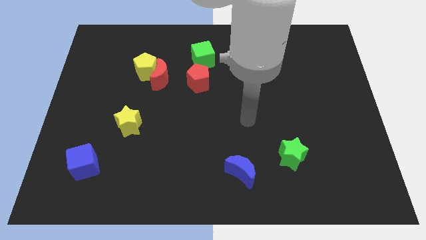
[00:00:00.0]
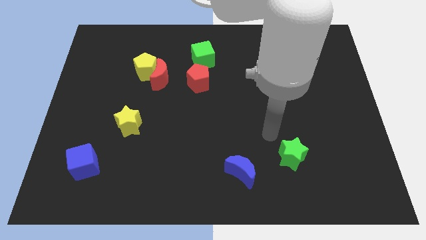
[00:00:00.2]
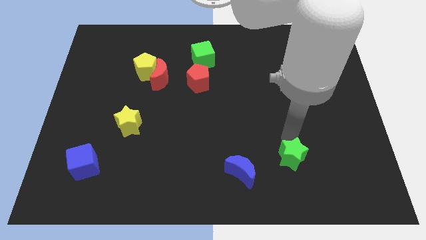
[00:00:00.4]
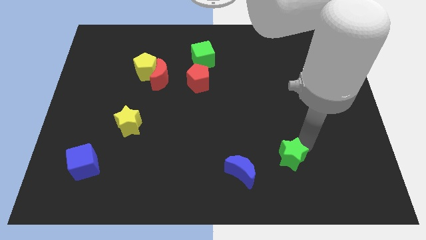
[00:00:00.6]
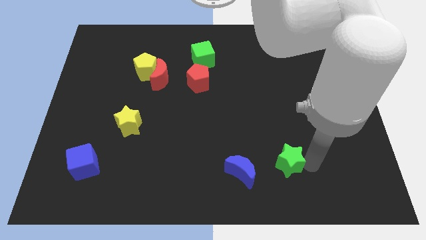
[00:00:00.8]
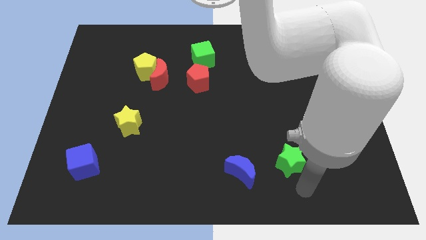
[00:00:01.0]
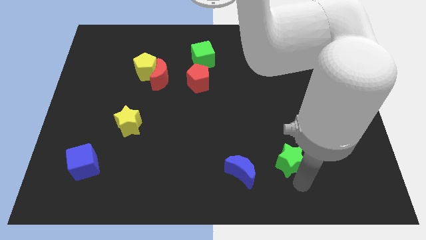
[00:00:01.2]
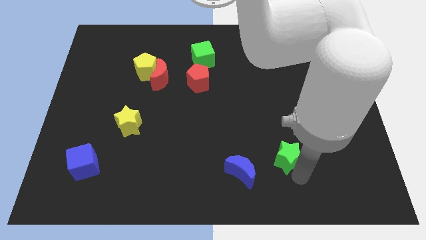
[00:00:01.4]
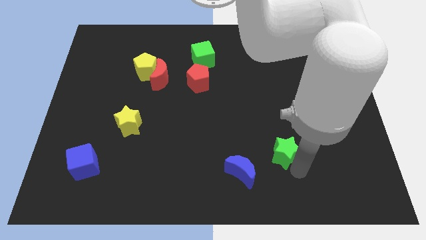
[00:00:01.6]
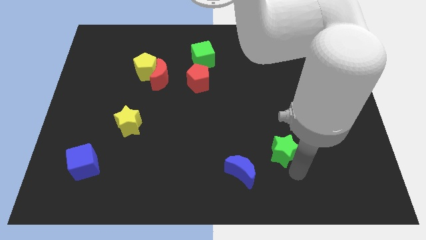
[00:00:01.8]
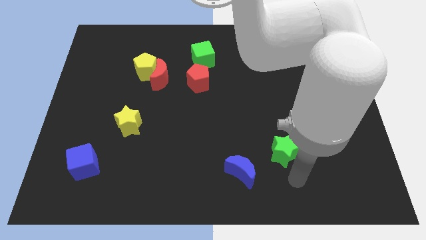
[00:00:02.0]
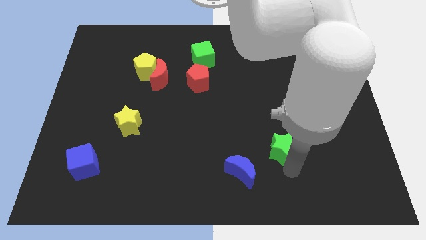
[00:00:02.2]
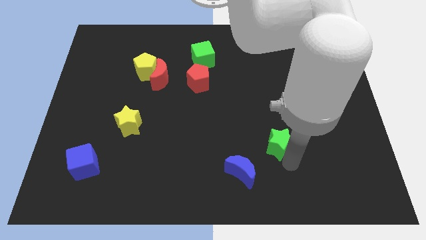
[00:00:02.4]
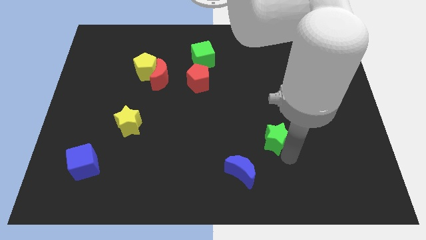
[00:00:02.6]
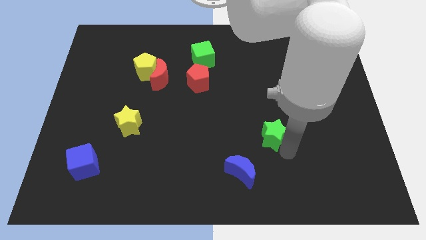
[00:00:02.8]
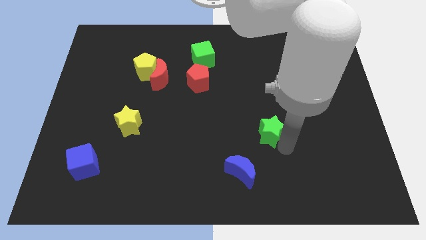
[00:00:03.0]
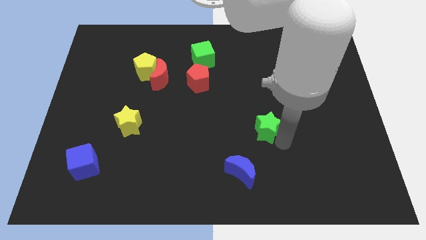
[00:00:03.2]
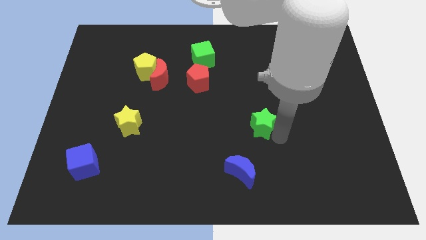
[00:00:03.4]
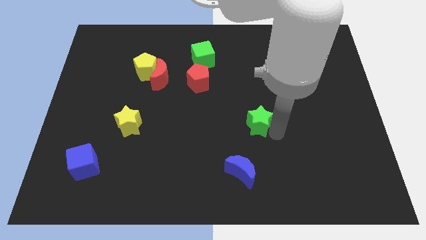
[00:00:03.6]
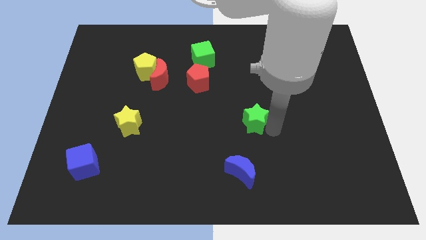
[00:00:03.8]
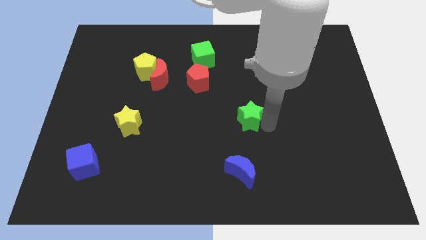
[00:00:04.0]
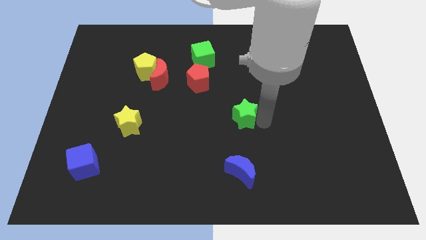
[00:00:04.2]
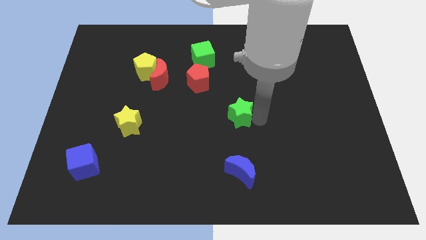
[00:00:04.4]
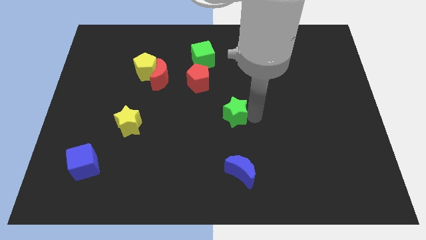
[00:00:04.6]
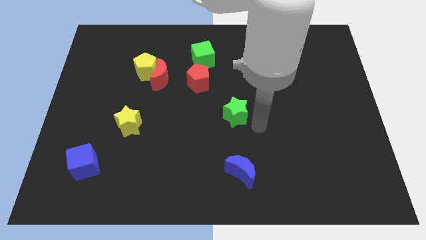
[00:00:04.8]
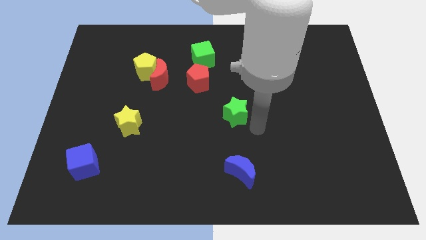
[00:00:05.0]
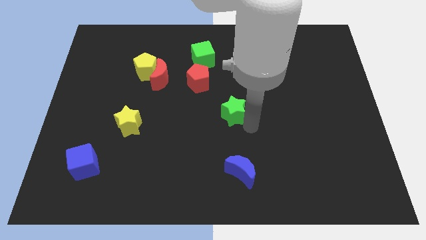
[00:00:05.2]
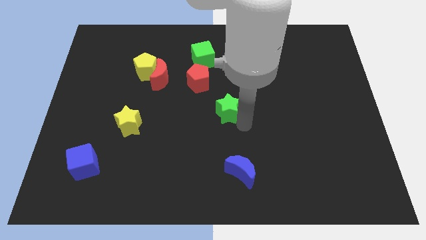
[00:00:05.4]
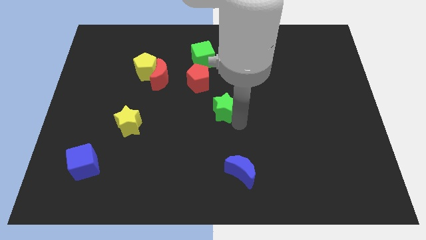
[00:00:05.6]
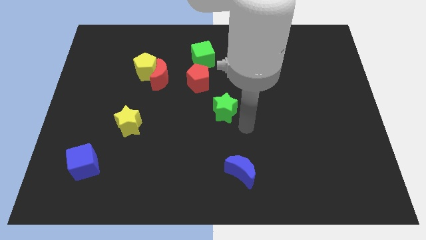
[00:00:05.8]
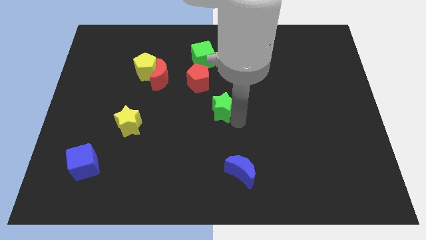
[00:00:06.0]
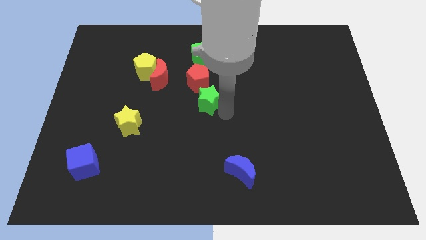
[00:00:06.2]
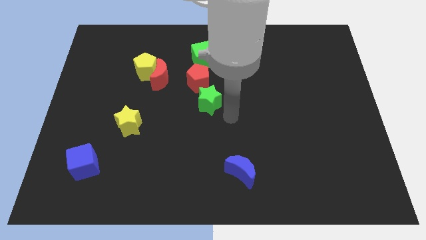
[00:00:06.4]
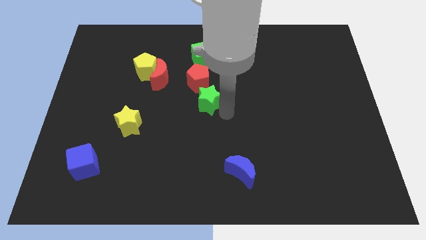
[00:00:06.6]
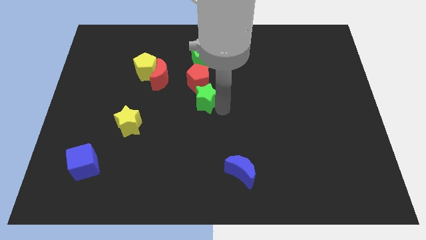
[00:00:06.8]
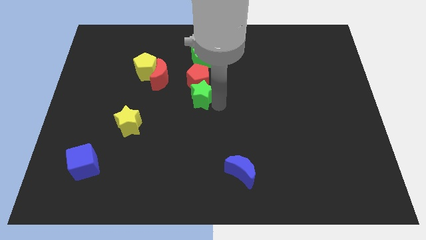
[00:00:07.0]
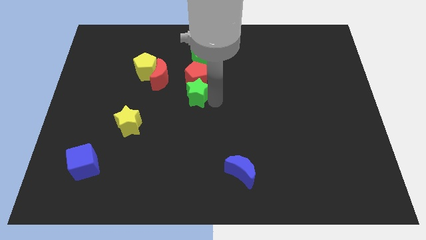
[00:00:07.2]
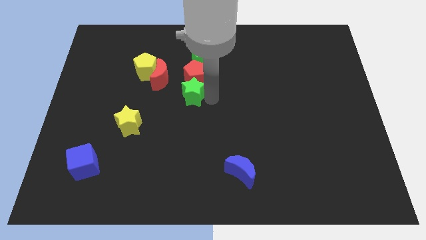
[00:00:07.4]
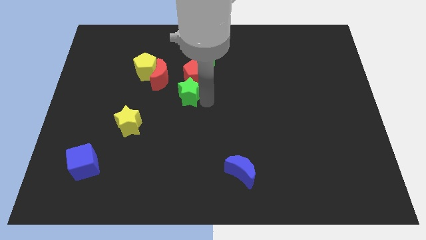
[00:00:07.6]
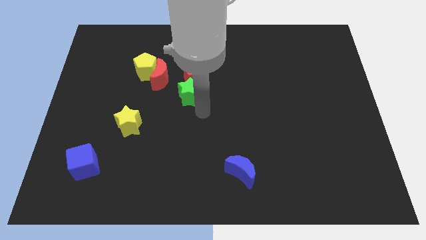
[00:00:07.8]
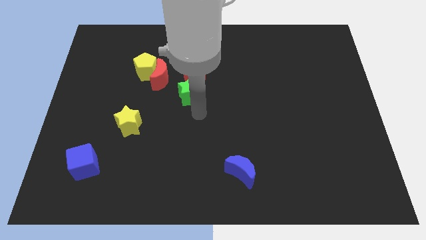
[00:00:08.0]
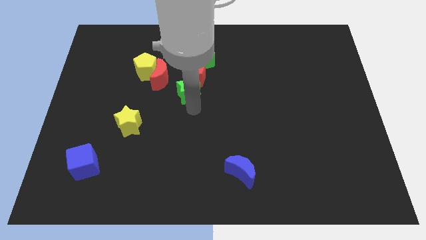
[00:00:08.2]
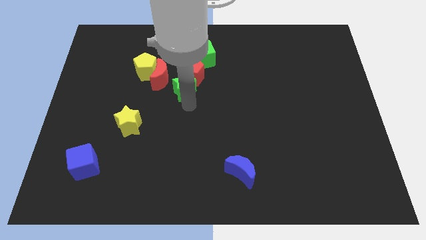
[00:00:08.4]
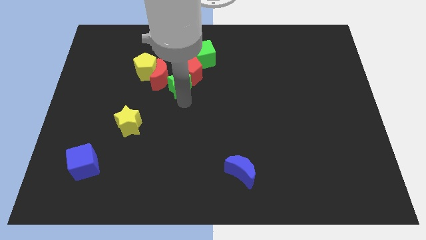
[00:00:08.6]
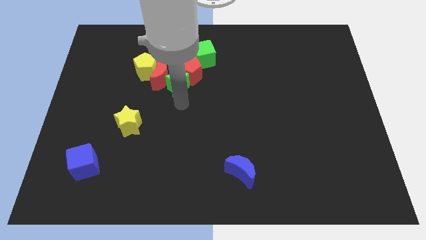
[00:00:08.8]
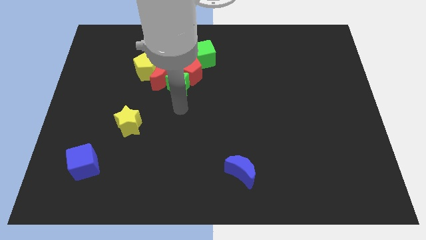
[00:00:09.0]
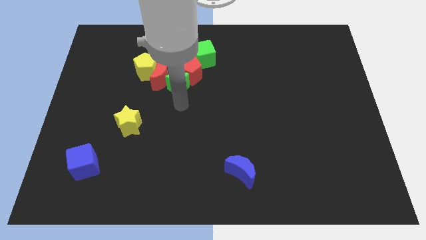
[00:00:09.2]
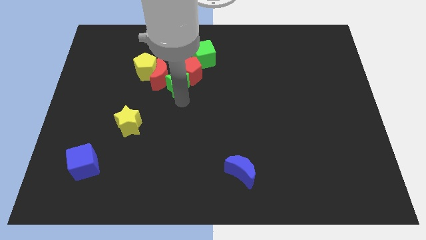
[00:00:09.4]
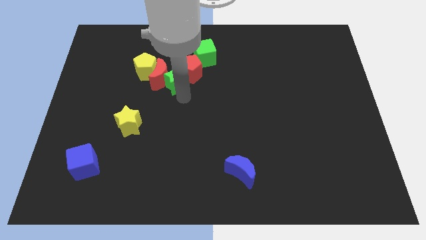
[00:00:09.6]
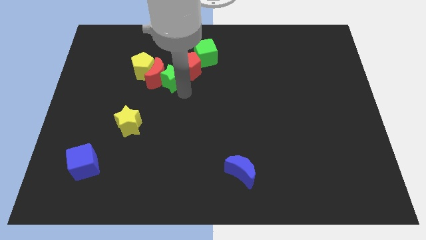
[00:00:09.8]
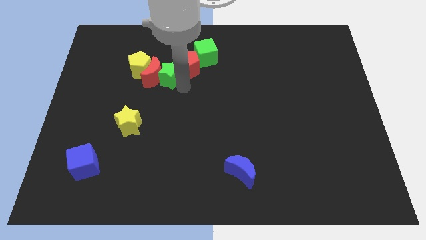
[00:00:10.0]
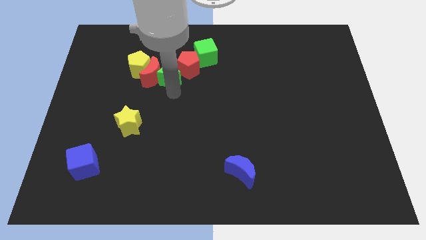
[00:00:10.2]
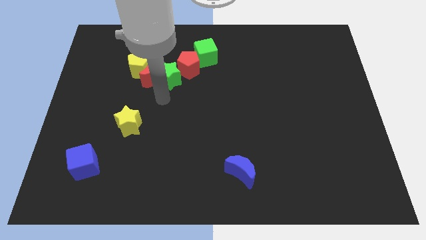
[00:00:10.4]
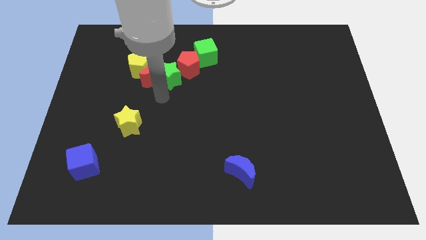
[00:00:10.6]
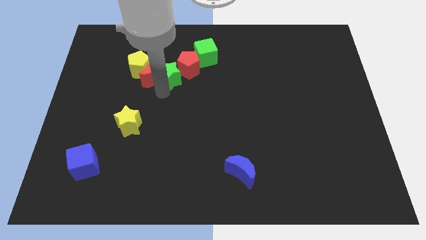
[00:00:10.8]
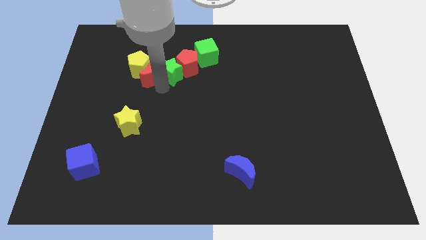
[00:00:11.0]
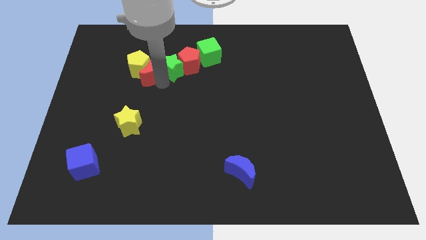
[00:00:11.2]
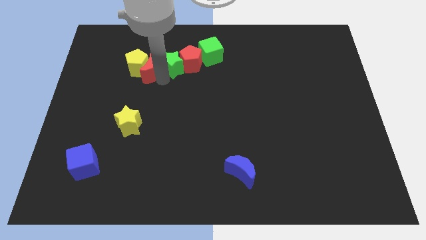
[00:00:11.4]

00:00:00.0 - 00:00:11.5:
slide the green star to the left side of the green cube
